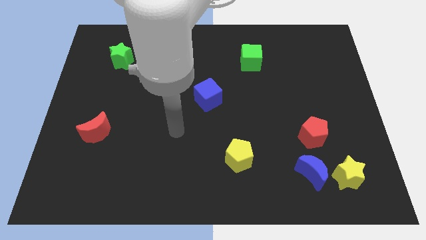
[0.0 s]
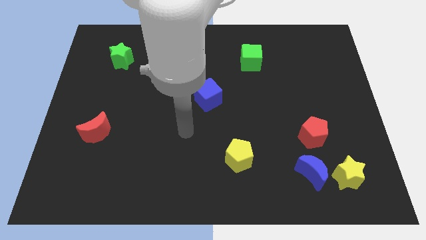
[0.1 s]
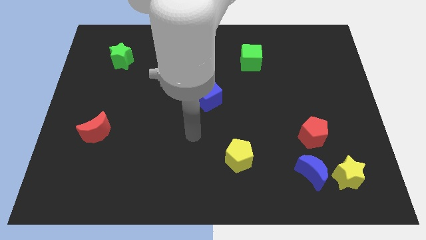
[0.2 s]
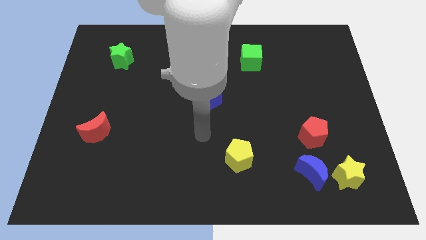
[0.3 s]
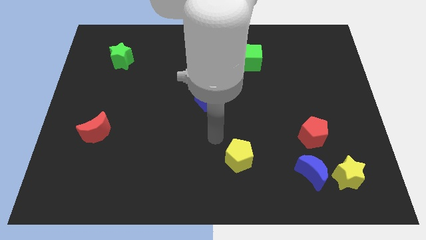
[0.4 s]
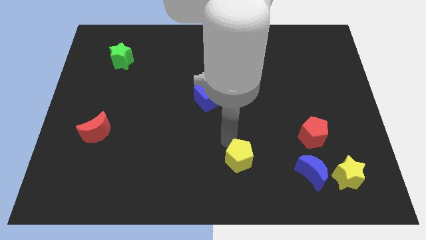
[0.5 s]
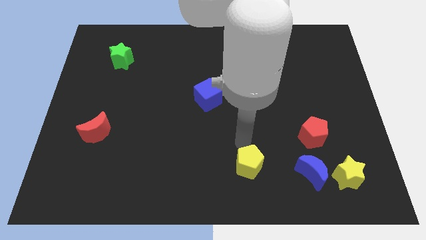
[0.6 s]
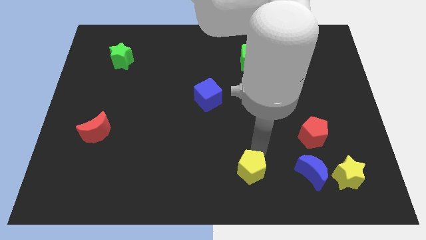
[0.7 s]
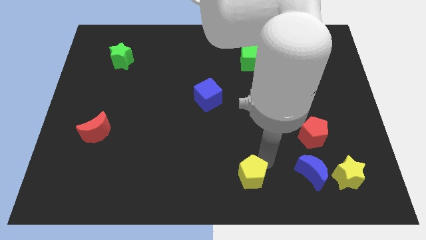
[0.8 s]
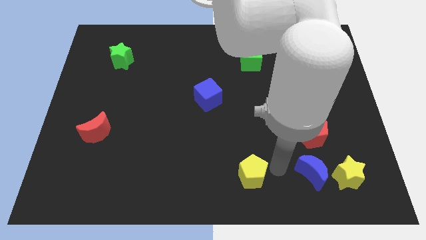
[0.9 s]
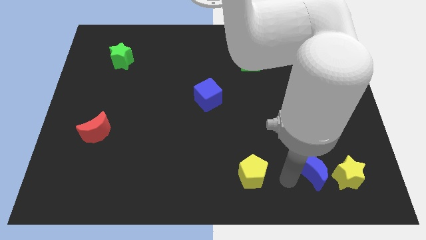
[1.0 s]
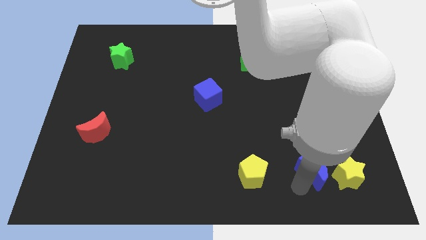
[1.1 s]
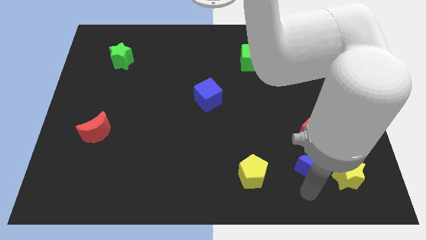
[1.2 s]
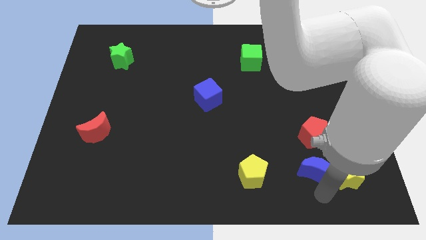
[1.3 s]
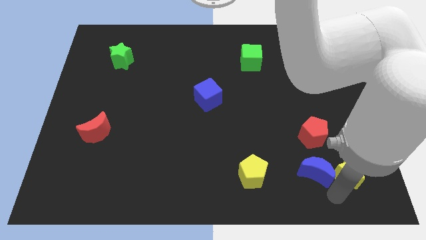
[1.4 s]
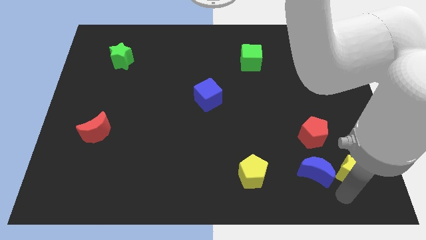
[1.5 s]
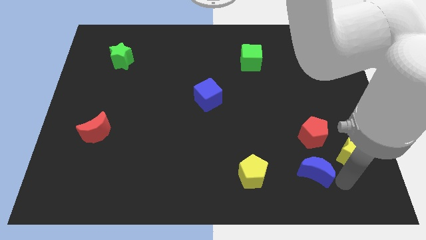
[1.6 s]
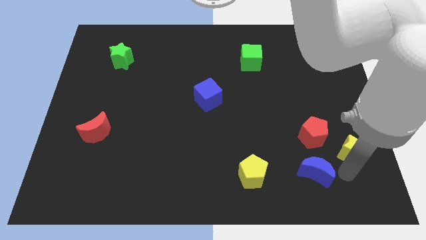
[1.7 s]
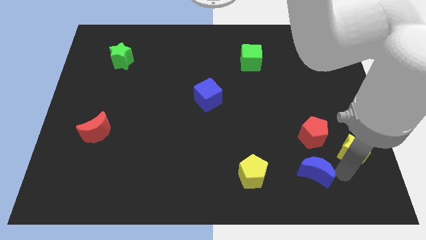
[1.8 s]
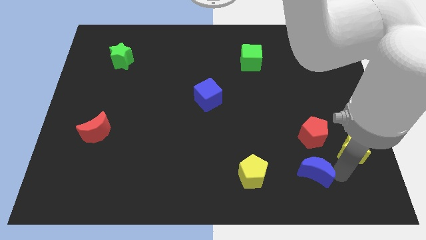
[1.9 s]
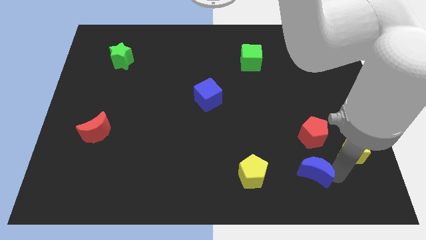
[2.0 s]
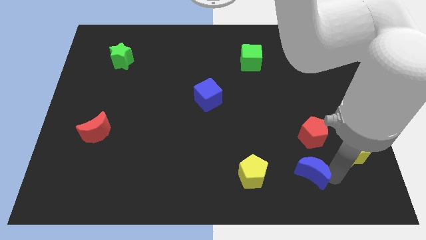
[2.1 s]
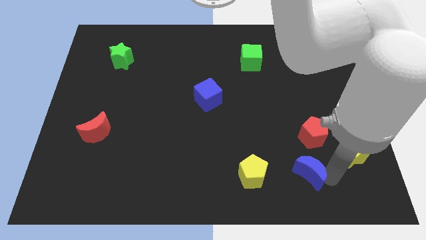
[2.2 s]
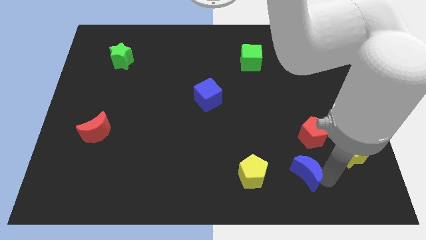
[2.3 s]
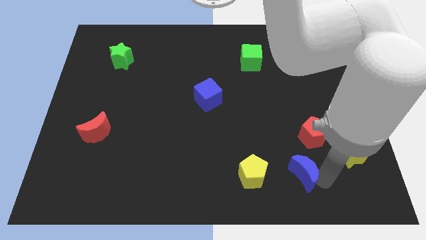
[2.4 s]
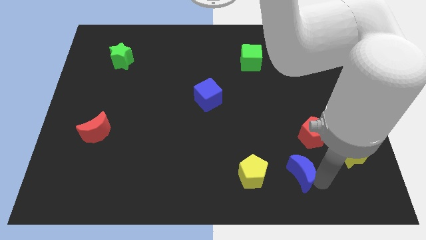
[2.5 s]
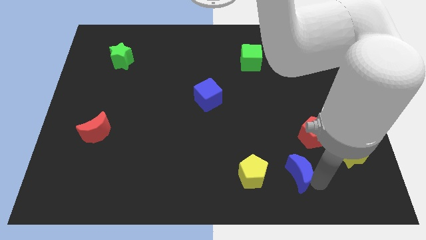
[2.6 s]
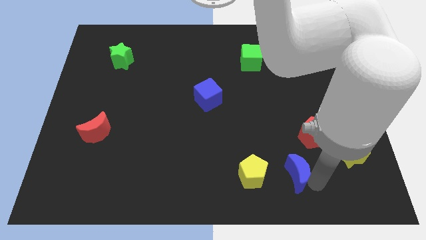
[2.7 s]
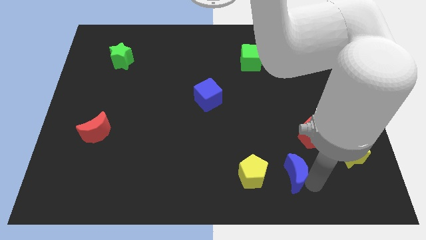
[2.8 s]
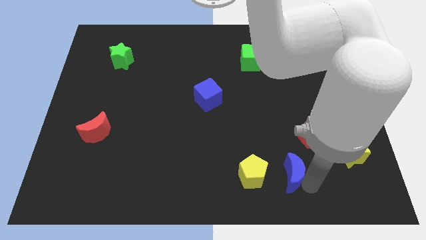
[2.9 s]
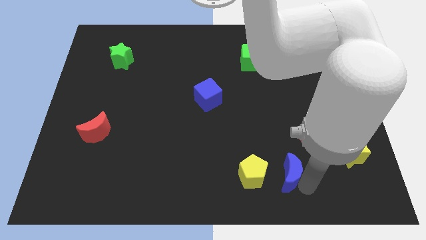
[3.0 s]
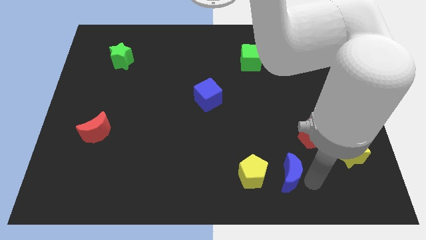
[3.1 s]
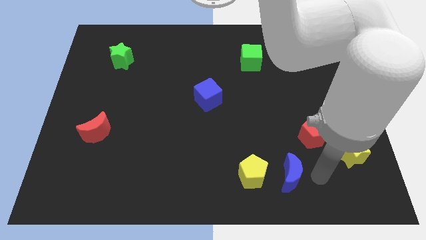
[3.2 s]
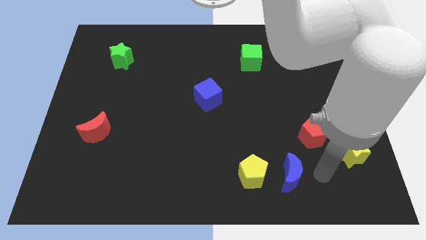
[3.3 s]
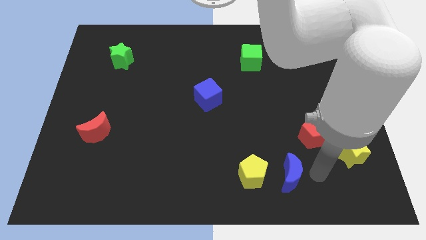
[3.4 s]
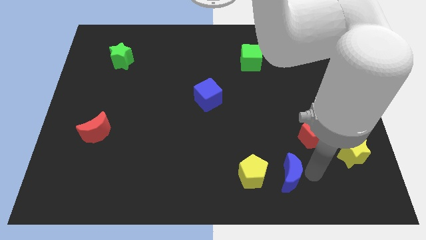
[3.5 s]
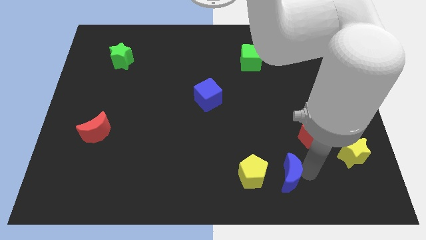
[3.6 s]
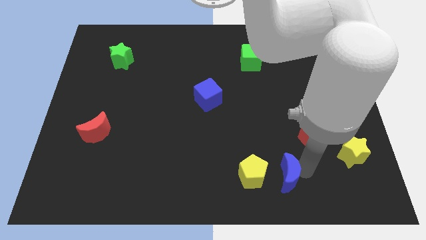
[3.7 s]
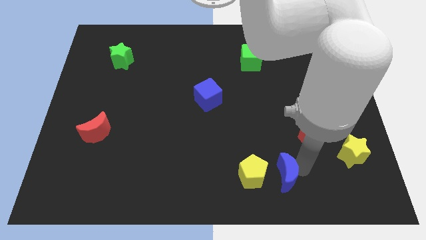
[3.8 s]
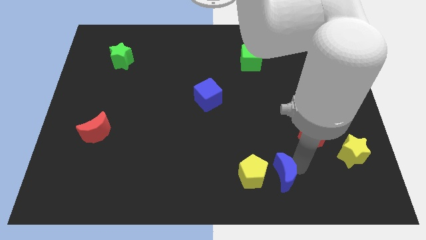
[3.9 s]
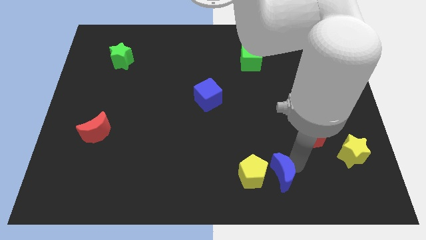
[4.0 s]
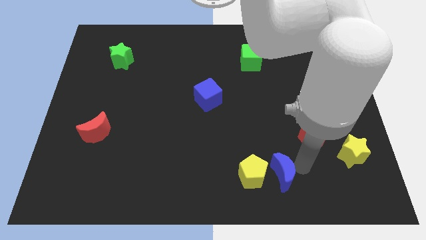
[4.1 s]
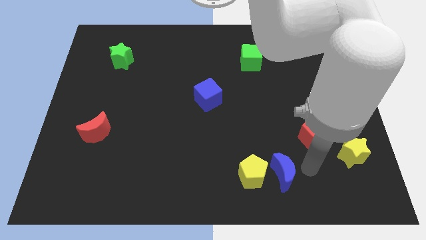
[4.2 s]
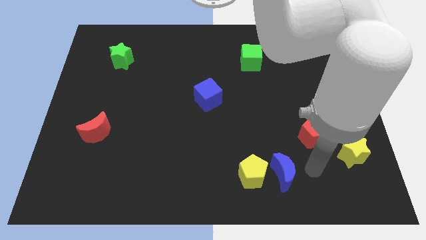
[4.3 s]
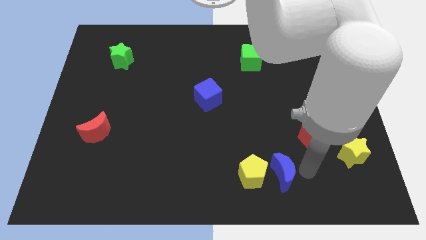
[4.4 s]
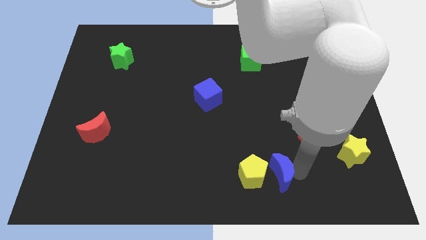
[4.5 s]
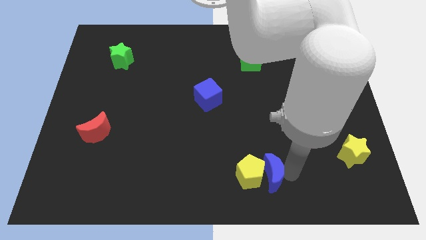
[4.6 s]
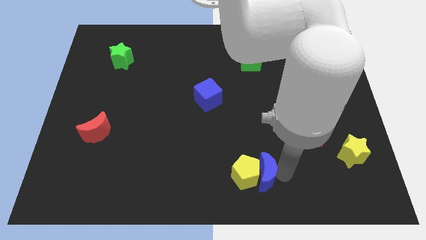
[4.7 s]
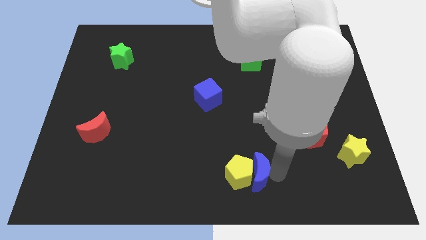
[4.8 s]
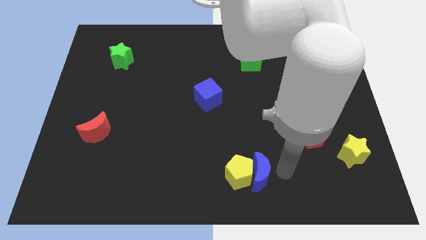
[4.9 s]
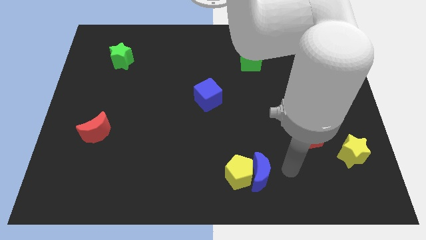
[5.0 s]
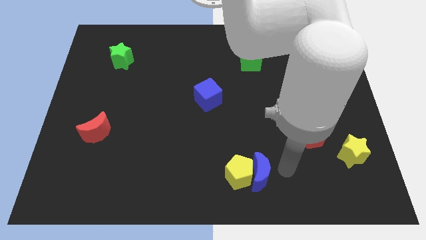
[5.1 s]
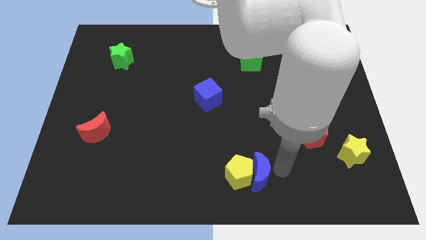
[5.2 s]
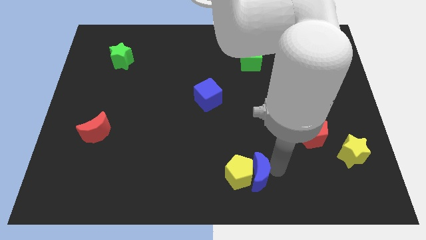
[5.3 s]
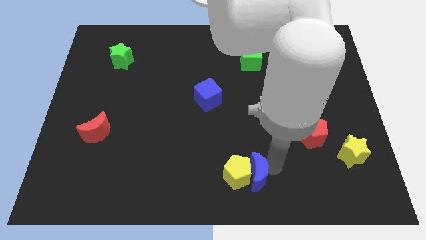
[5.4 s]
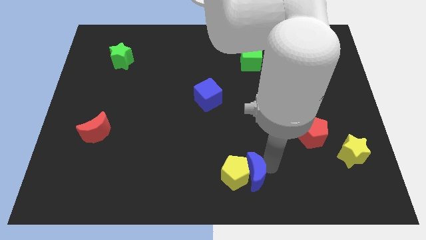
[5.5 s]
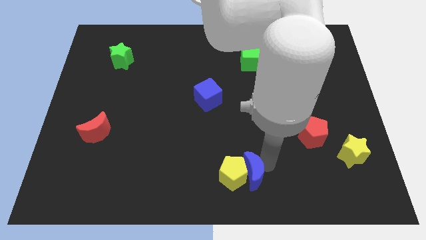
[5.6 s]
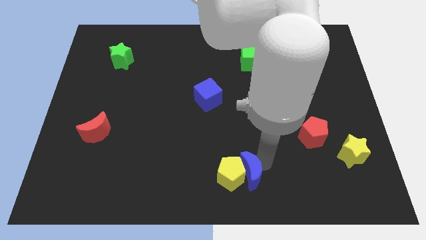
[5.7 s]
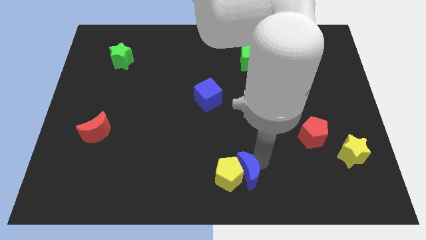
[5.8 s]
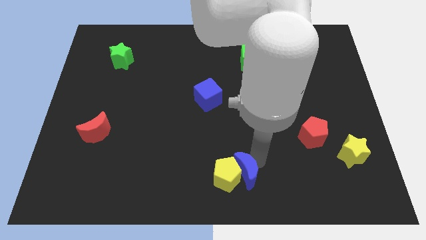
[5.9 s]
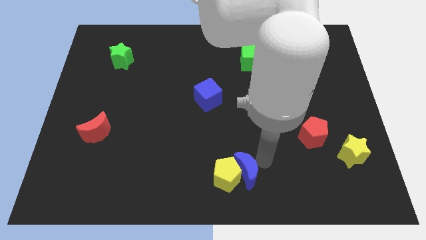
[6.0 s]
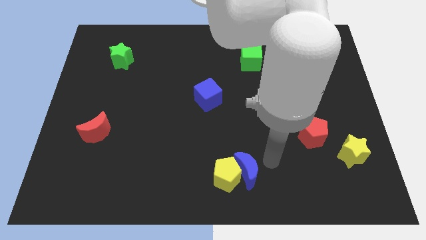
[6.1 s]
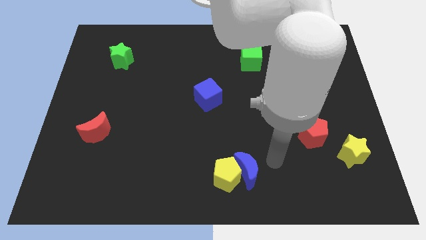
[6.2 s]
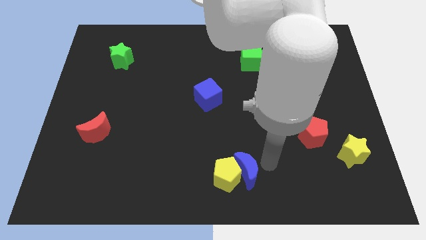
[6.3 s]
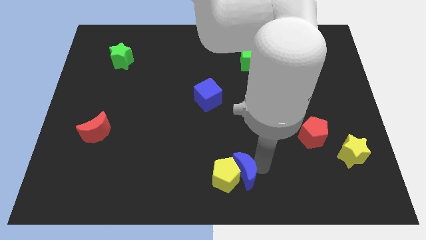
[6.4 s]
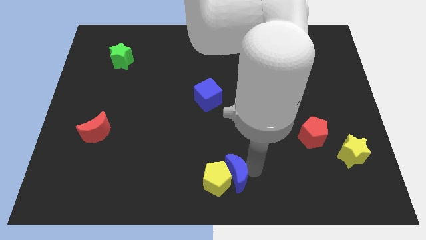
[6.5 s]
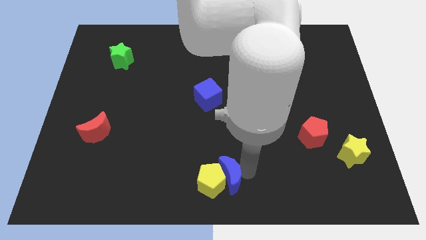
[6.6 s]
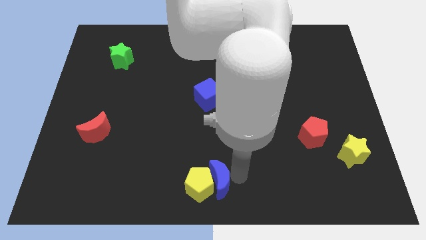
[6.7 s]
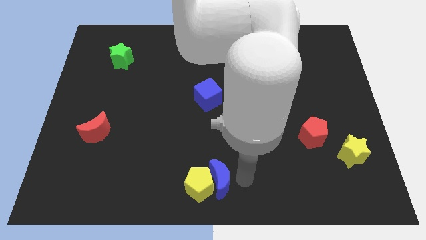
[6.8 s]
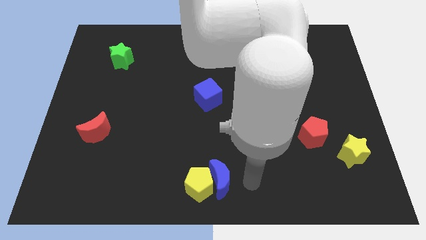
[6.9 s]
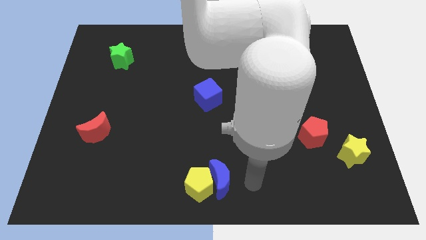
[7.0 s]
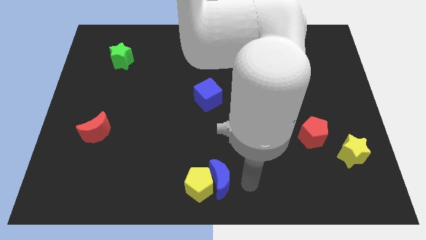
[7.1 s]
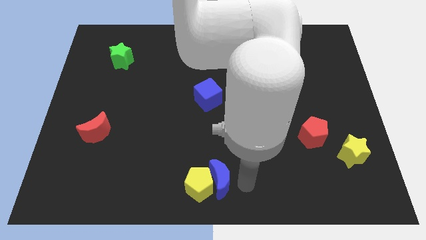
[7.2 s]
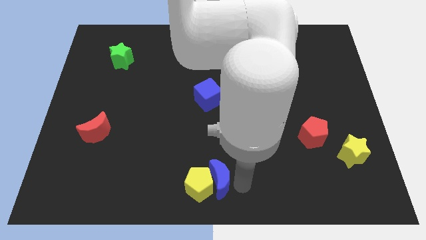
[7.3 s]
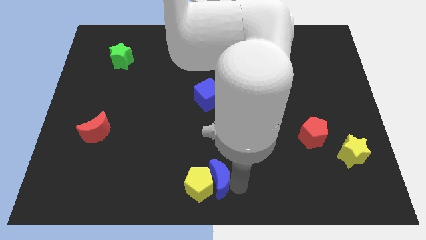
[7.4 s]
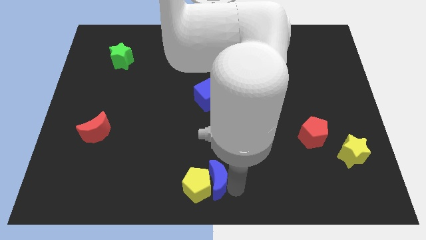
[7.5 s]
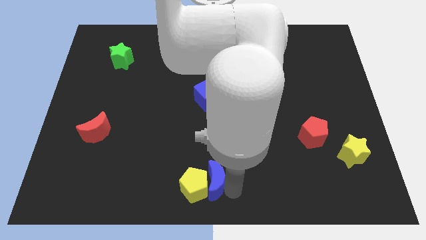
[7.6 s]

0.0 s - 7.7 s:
slide the blue moon left

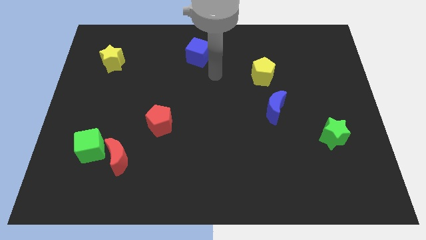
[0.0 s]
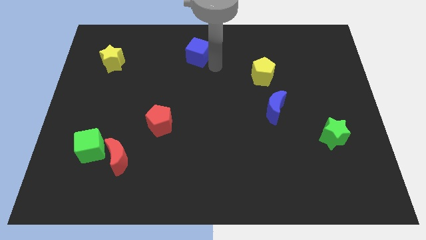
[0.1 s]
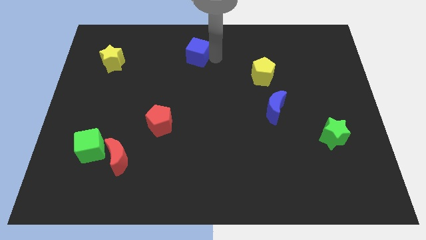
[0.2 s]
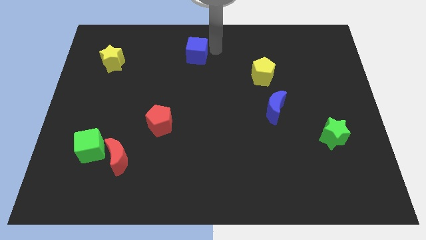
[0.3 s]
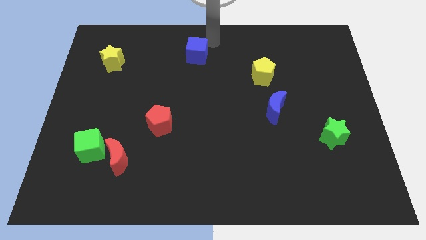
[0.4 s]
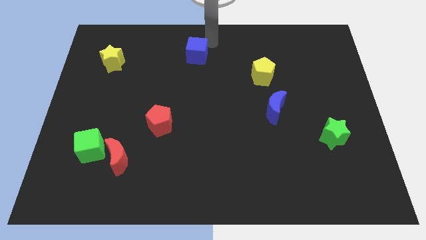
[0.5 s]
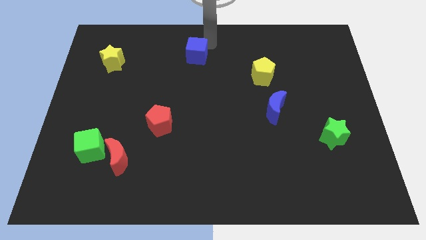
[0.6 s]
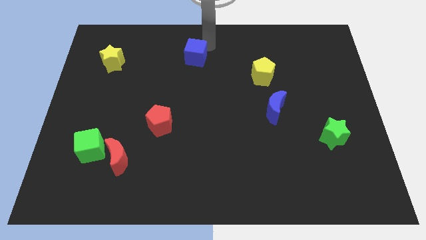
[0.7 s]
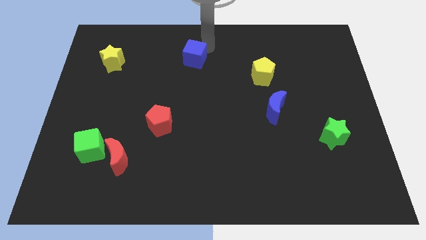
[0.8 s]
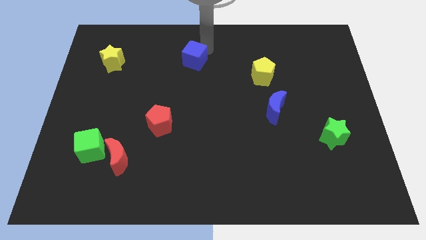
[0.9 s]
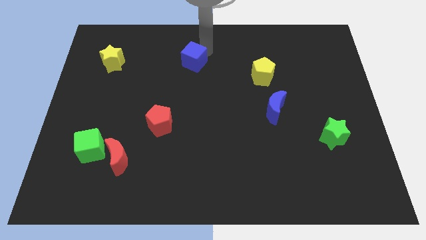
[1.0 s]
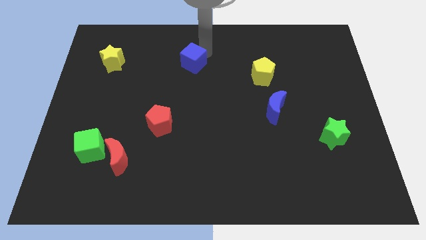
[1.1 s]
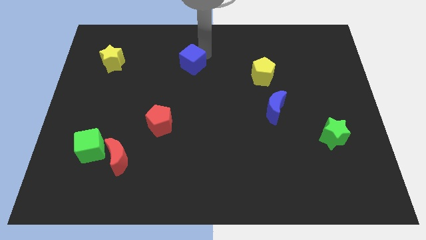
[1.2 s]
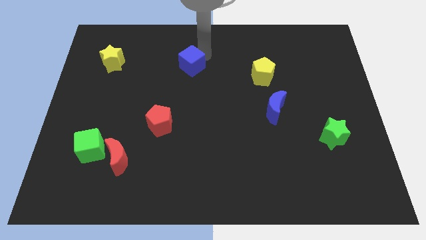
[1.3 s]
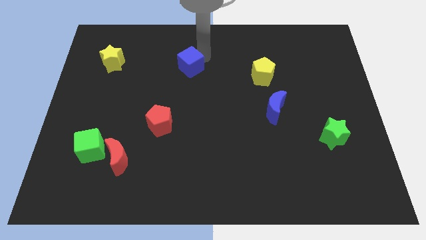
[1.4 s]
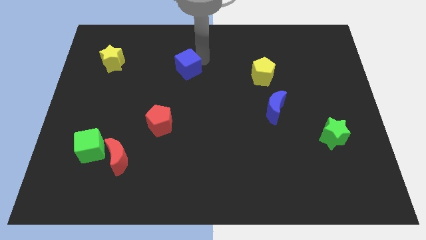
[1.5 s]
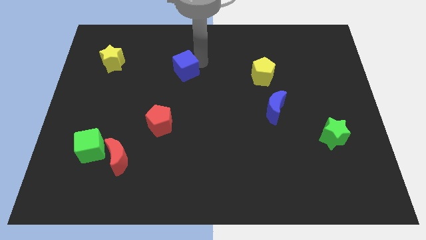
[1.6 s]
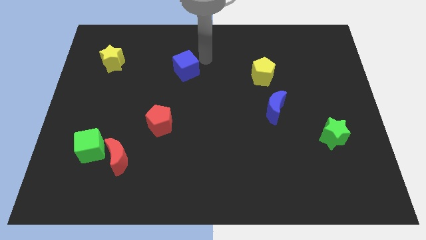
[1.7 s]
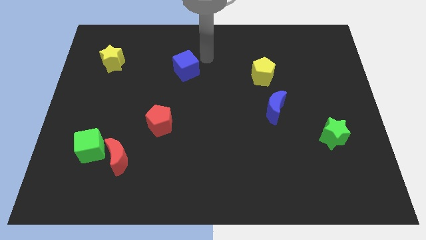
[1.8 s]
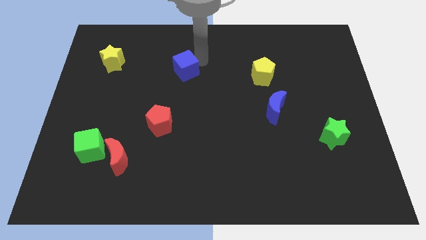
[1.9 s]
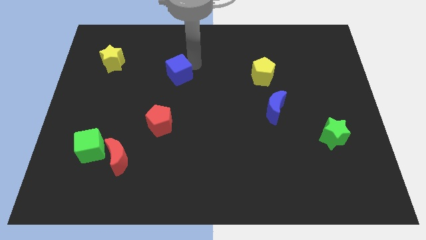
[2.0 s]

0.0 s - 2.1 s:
move the blue cube a little downwards and left diagonally
